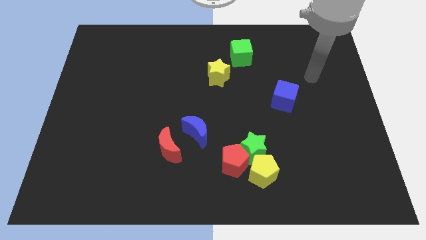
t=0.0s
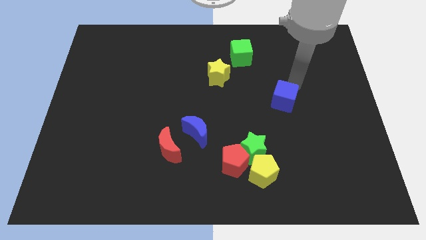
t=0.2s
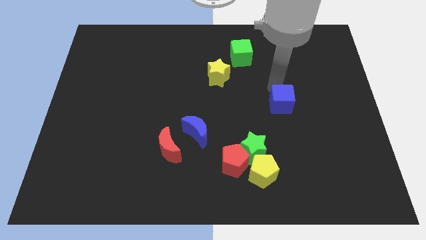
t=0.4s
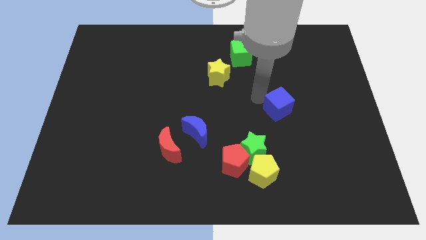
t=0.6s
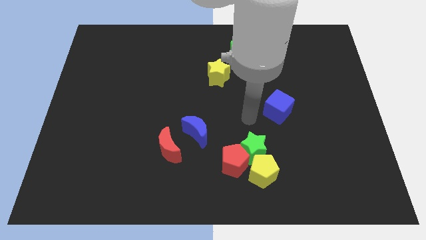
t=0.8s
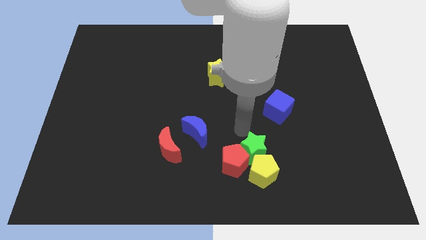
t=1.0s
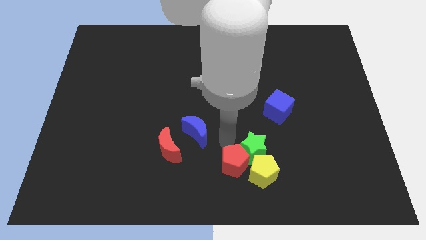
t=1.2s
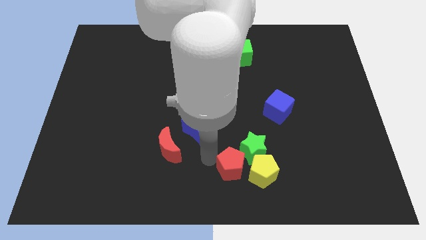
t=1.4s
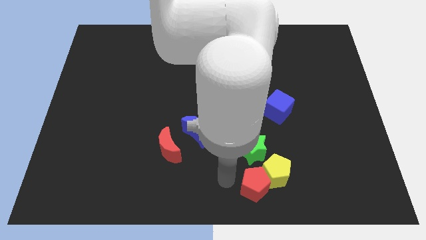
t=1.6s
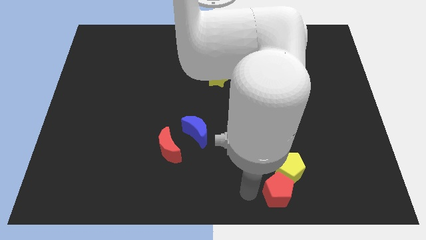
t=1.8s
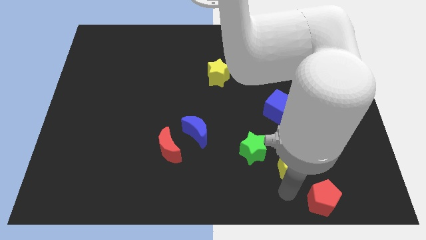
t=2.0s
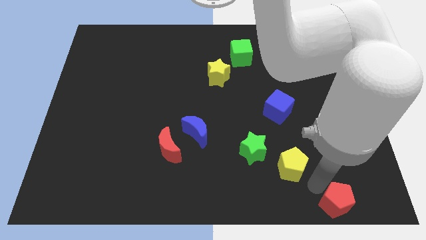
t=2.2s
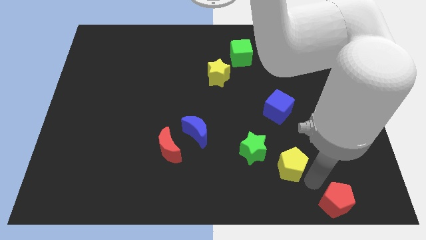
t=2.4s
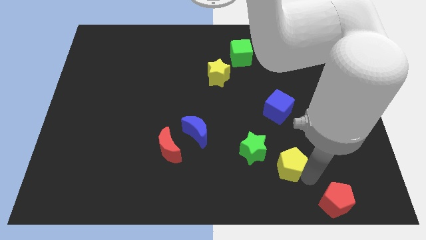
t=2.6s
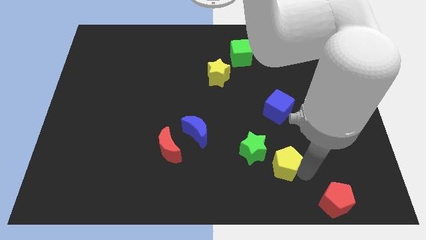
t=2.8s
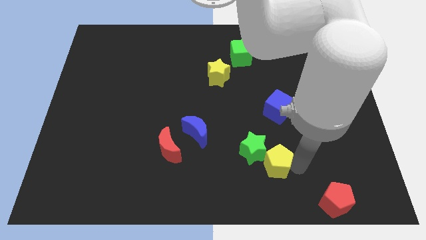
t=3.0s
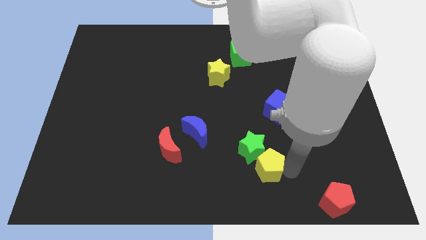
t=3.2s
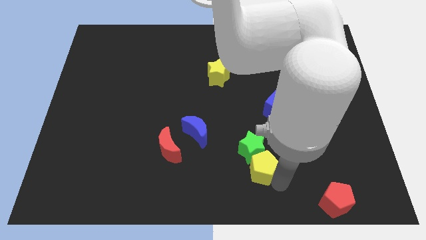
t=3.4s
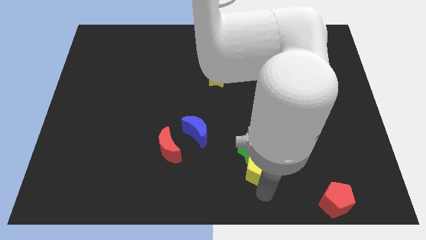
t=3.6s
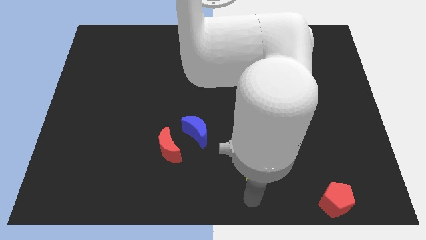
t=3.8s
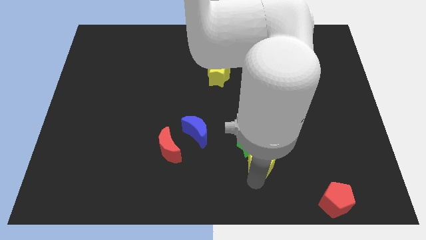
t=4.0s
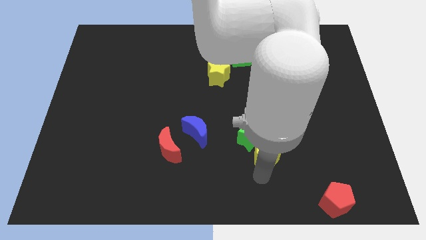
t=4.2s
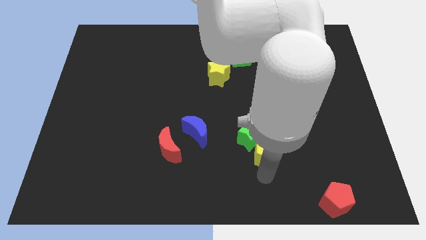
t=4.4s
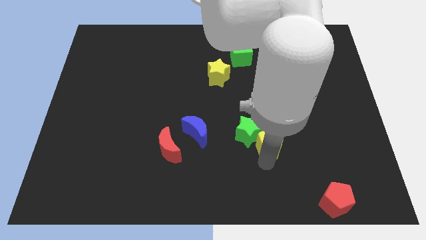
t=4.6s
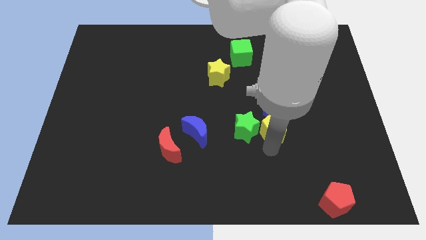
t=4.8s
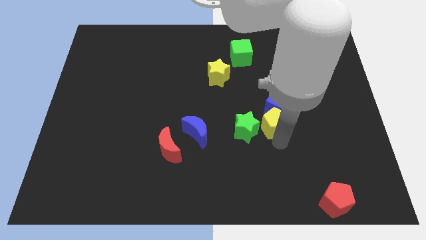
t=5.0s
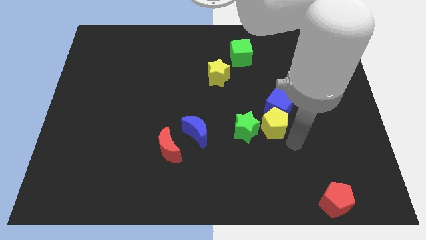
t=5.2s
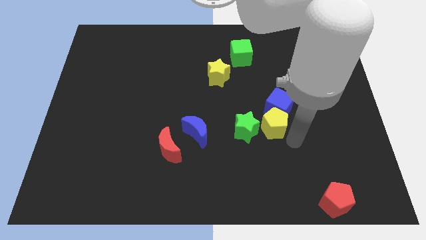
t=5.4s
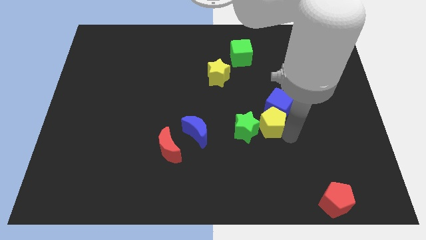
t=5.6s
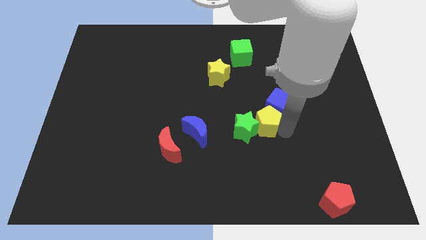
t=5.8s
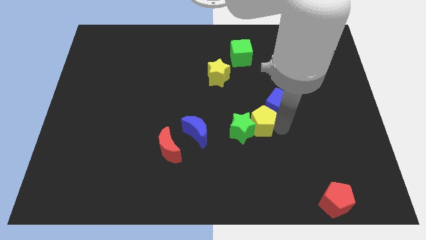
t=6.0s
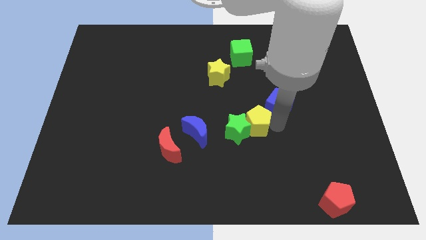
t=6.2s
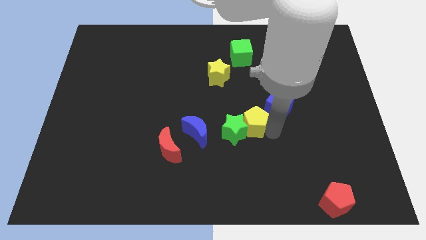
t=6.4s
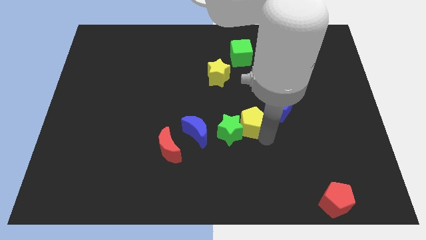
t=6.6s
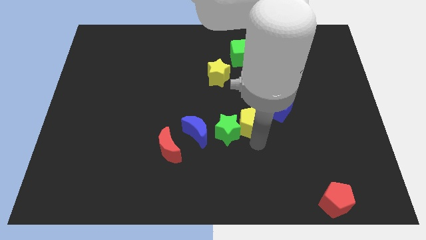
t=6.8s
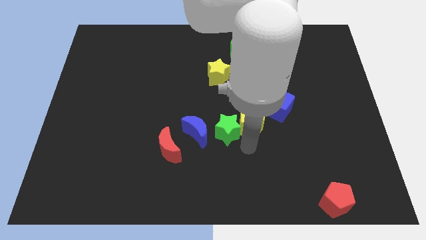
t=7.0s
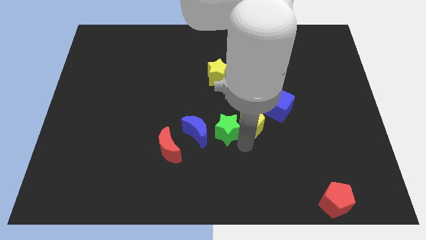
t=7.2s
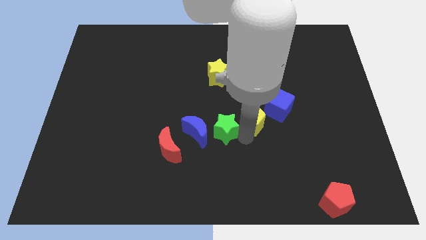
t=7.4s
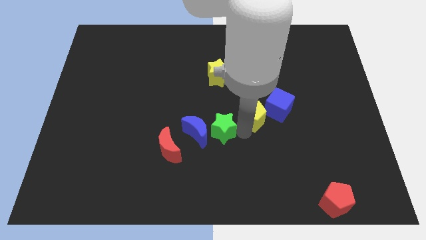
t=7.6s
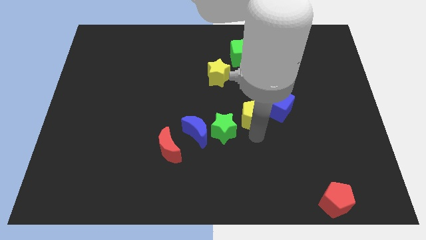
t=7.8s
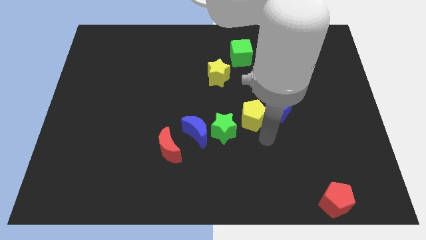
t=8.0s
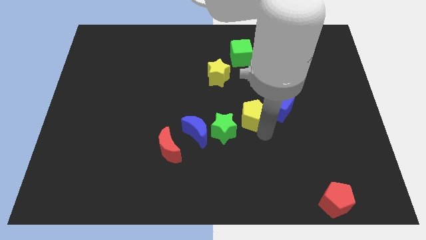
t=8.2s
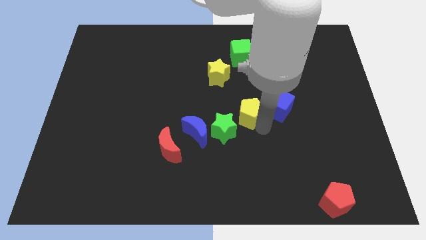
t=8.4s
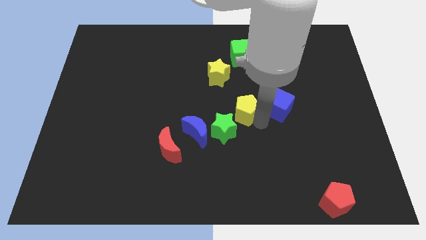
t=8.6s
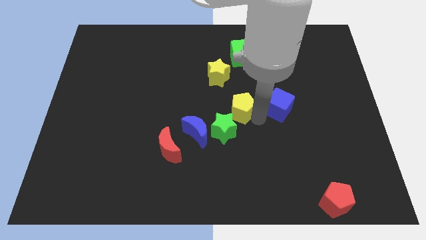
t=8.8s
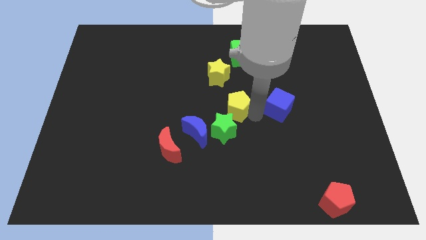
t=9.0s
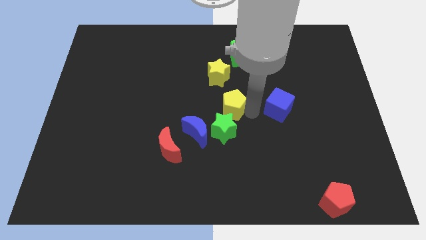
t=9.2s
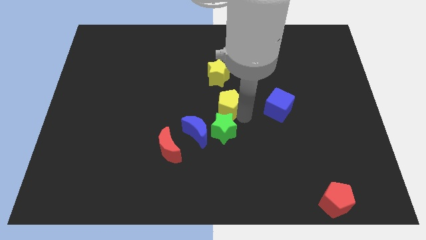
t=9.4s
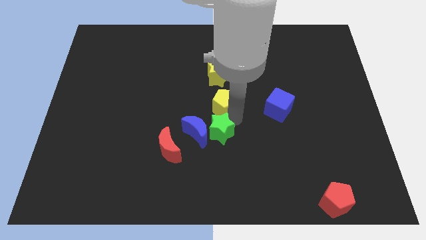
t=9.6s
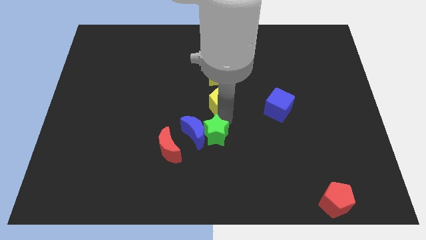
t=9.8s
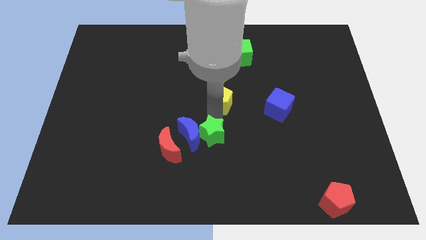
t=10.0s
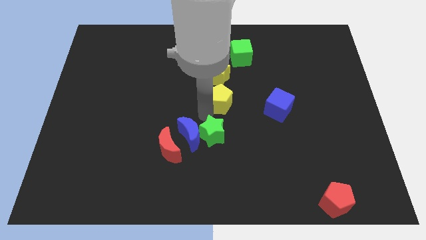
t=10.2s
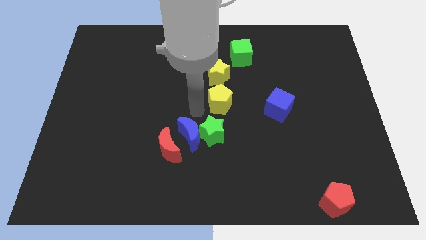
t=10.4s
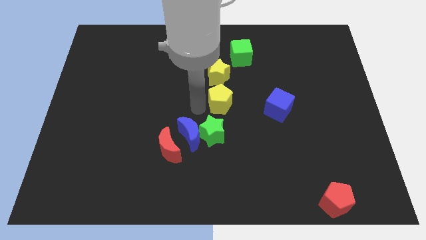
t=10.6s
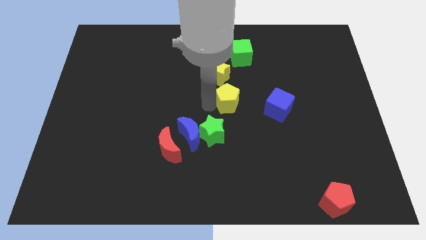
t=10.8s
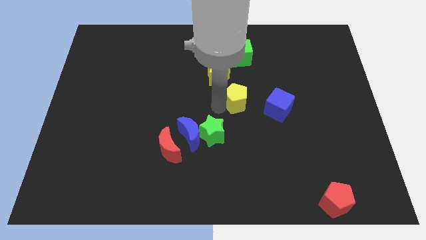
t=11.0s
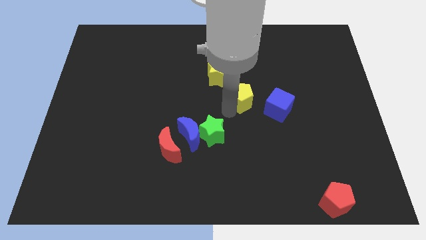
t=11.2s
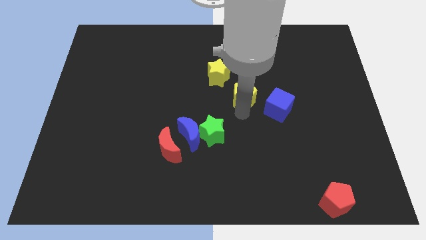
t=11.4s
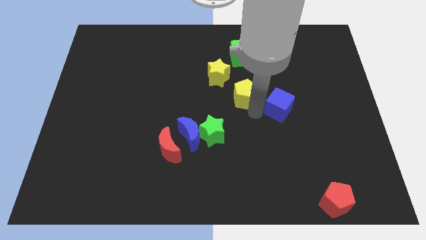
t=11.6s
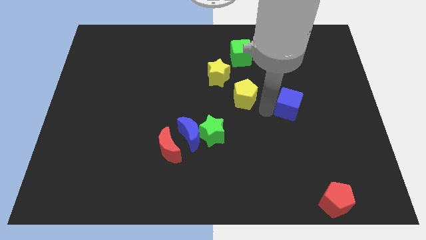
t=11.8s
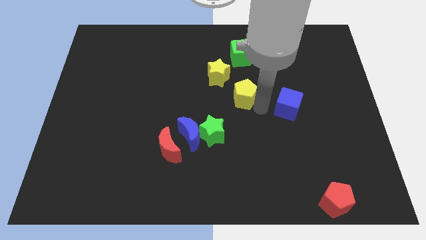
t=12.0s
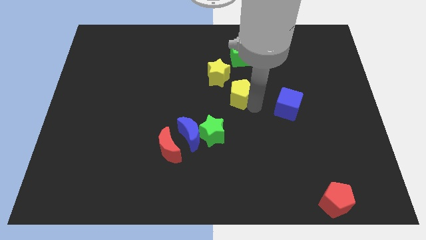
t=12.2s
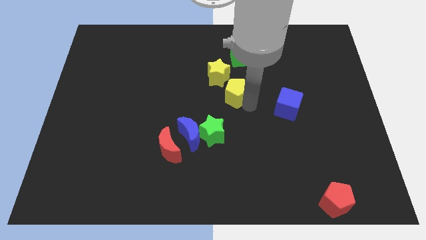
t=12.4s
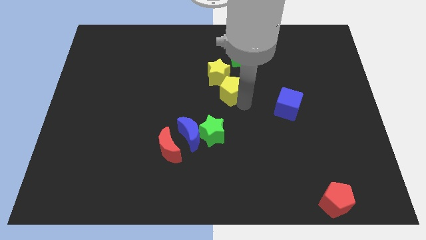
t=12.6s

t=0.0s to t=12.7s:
push the yellow pentagon to the yellow star

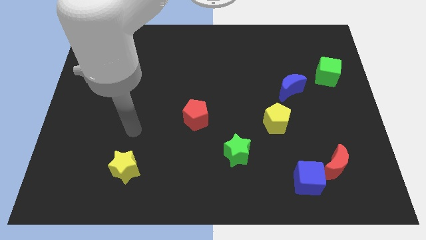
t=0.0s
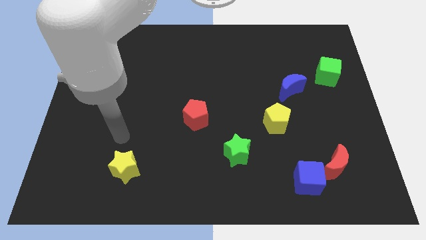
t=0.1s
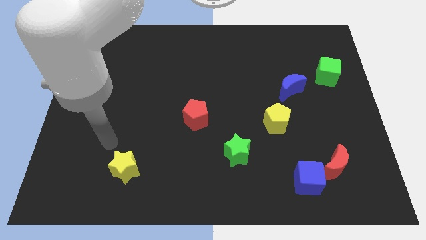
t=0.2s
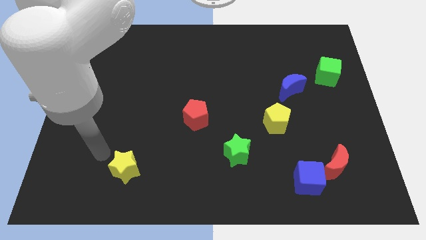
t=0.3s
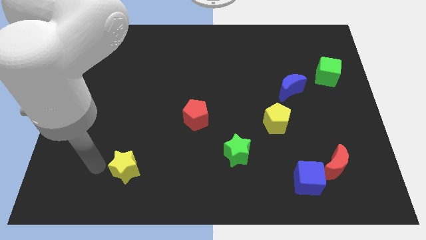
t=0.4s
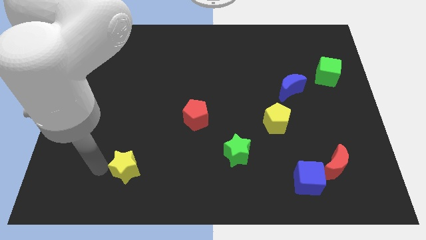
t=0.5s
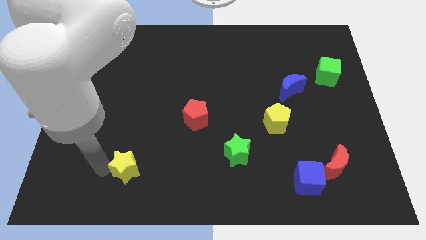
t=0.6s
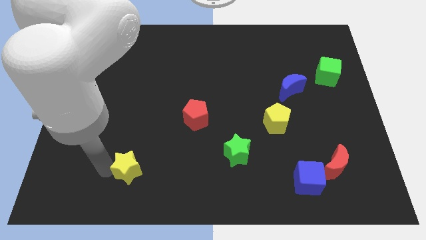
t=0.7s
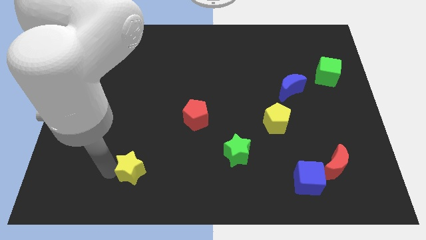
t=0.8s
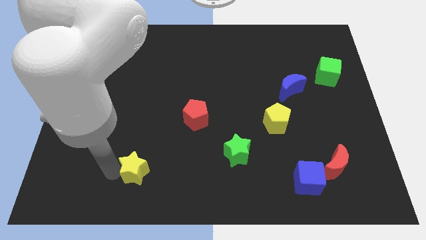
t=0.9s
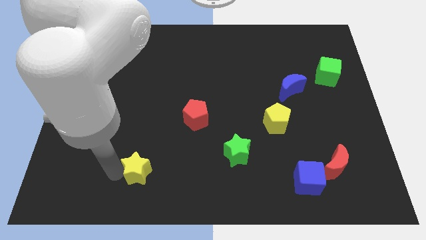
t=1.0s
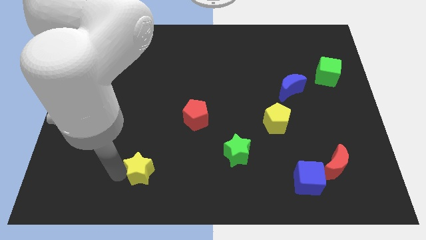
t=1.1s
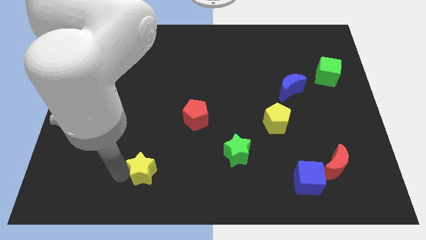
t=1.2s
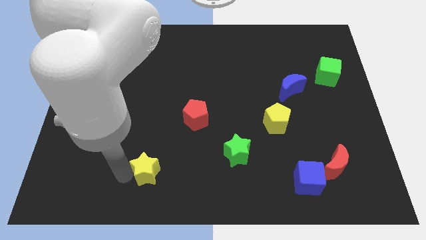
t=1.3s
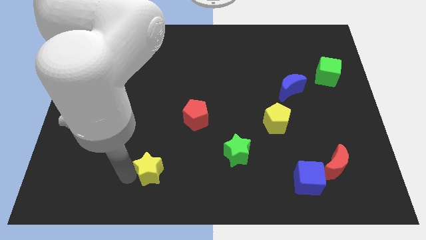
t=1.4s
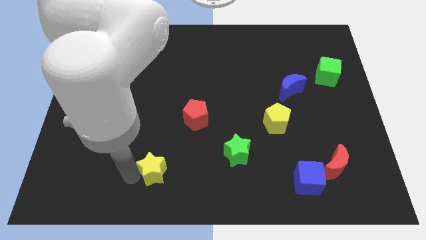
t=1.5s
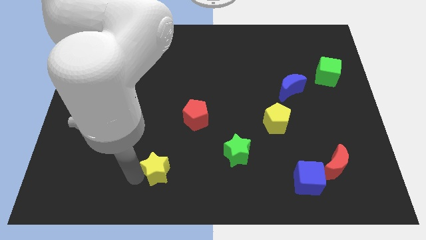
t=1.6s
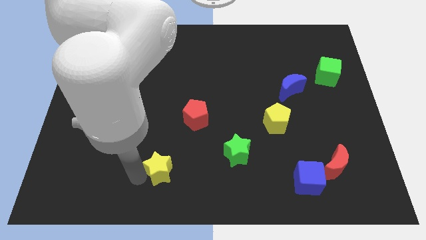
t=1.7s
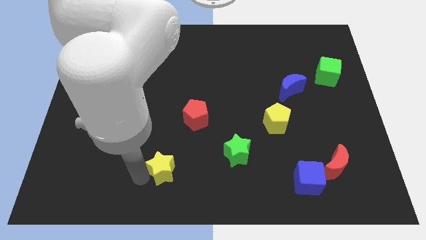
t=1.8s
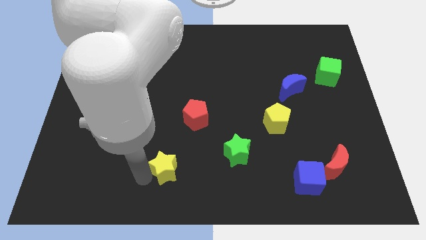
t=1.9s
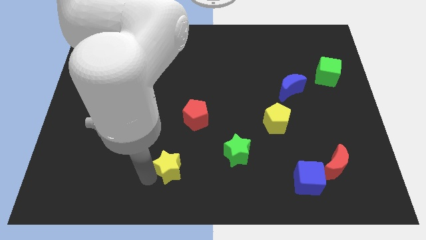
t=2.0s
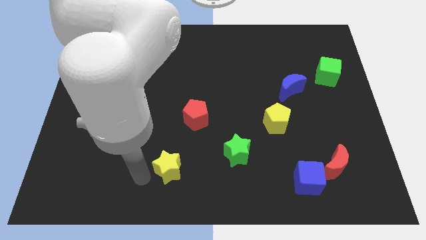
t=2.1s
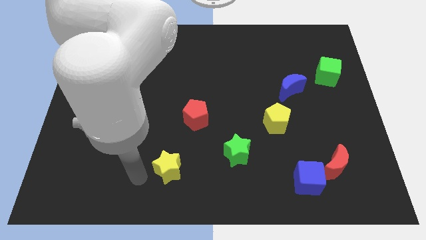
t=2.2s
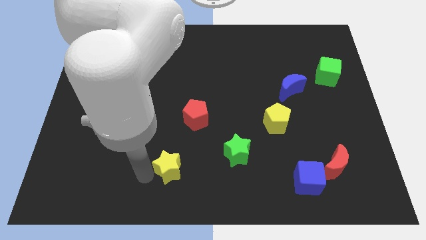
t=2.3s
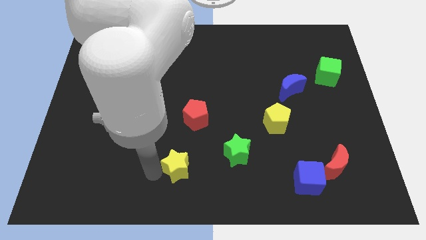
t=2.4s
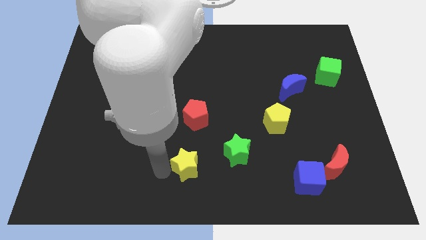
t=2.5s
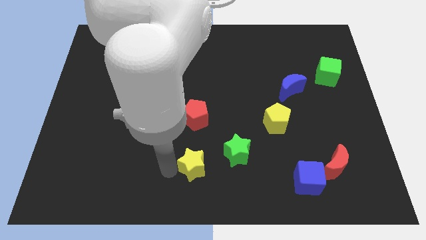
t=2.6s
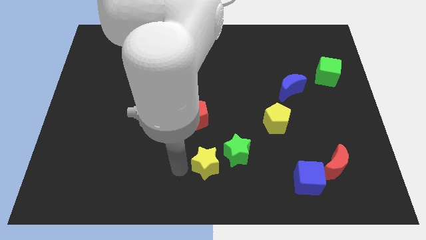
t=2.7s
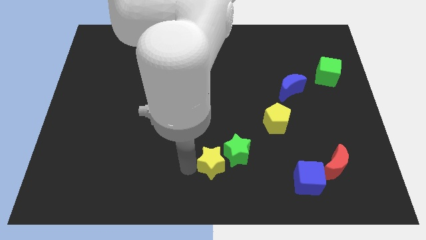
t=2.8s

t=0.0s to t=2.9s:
move the yellow star to the green star
